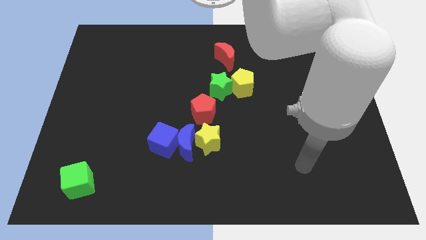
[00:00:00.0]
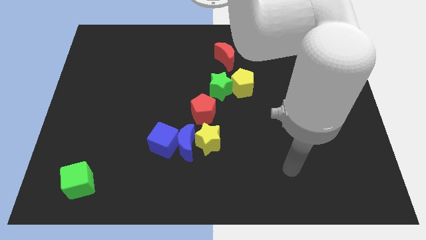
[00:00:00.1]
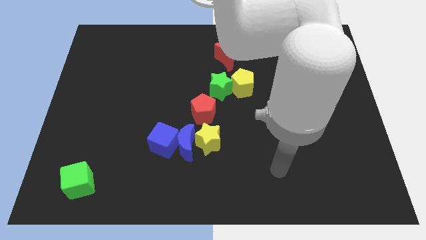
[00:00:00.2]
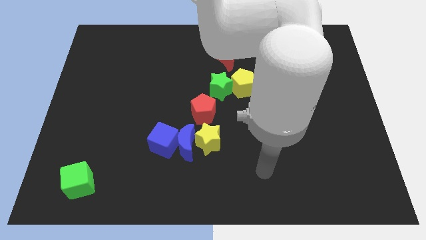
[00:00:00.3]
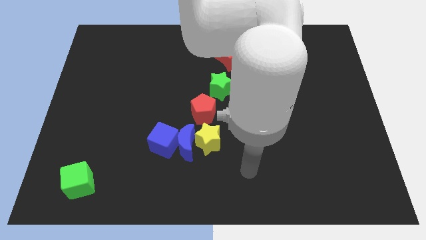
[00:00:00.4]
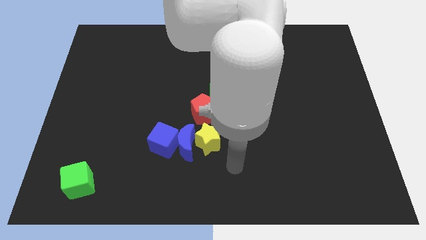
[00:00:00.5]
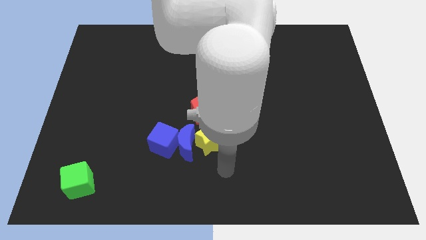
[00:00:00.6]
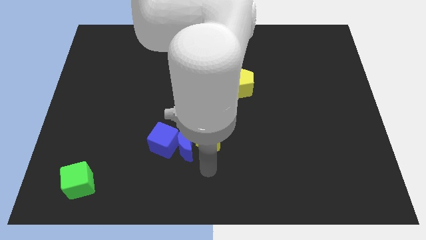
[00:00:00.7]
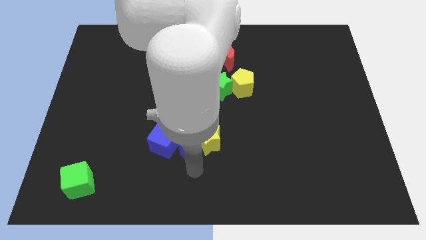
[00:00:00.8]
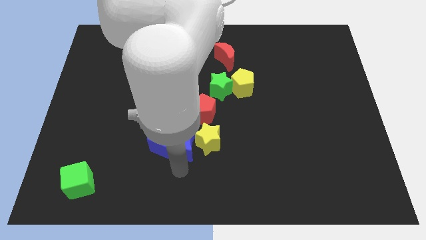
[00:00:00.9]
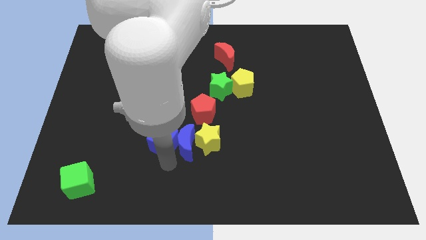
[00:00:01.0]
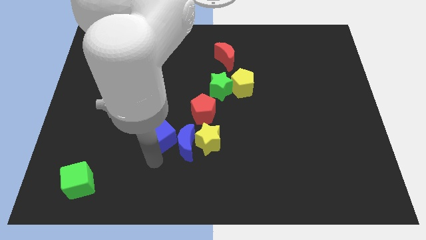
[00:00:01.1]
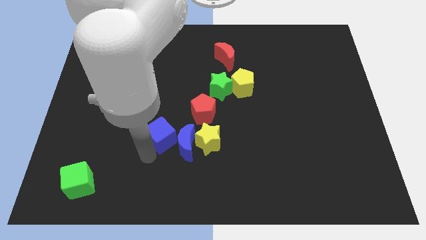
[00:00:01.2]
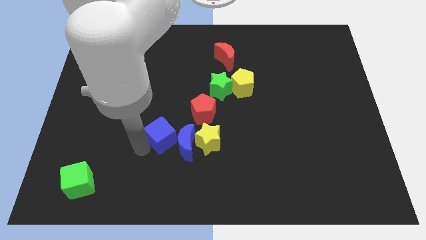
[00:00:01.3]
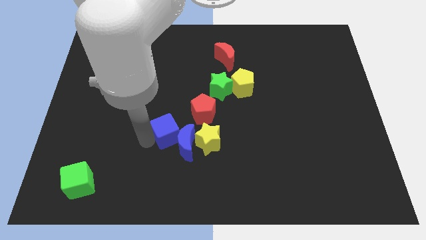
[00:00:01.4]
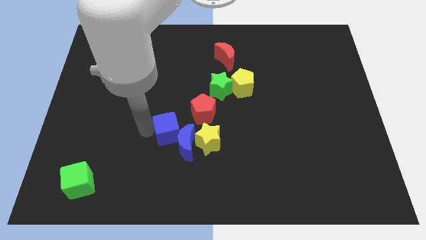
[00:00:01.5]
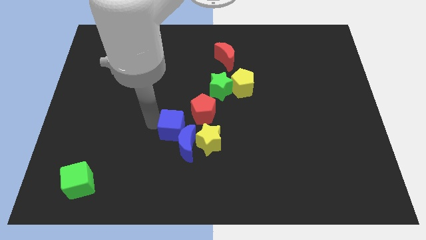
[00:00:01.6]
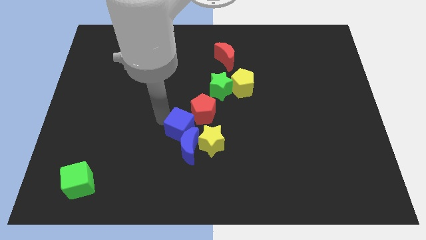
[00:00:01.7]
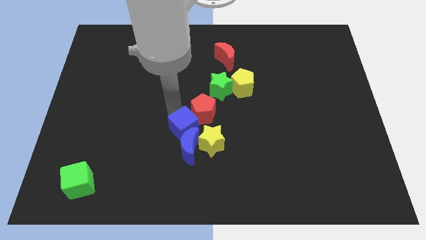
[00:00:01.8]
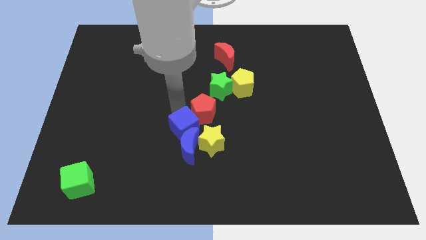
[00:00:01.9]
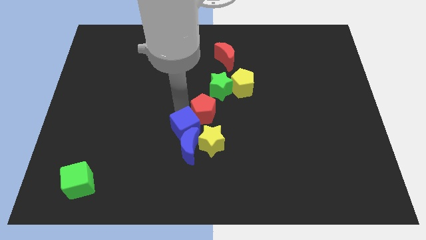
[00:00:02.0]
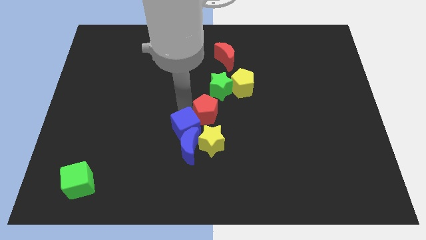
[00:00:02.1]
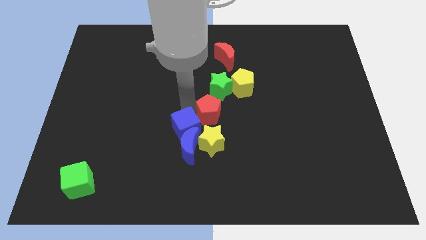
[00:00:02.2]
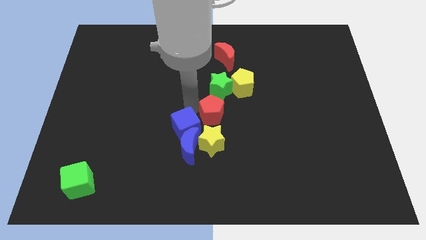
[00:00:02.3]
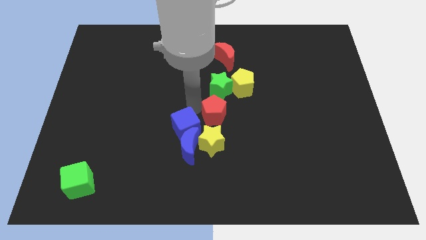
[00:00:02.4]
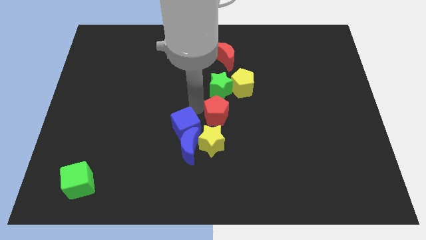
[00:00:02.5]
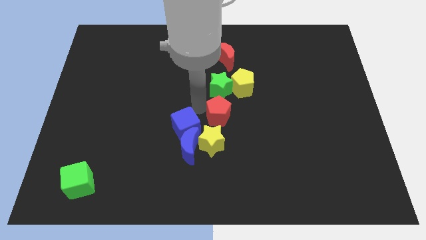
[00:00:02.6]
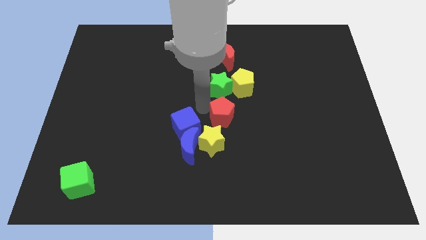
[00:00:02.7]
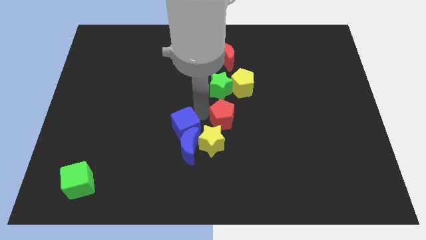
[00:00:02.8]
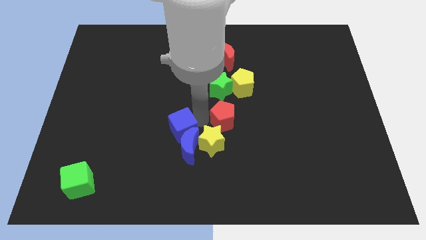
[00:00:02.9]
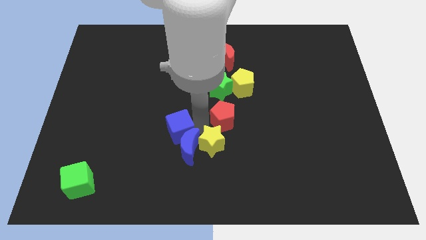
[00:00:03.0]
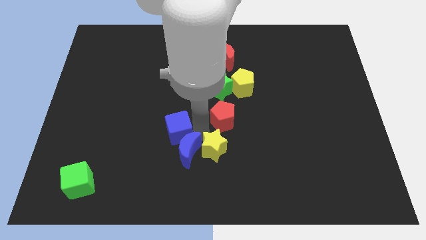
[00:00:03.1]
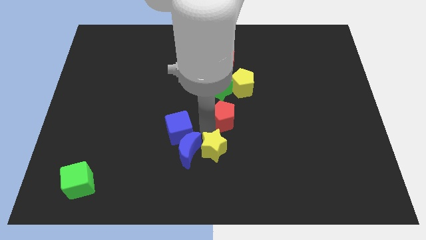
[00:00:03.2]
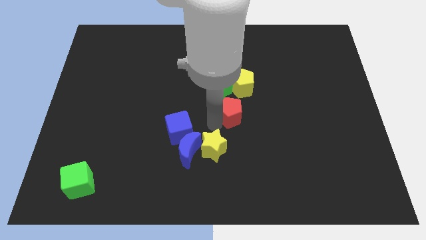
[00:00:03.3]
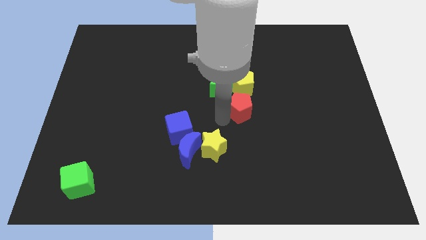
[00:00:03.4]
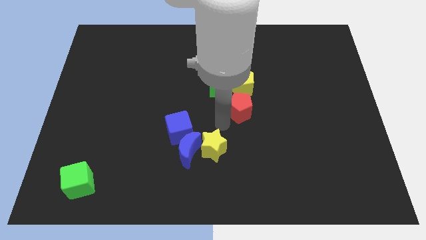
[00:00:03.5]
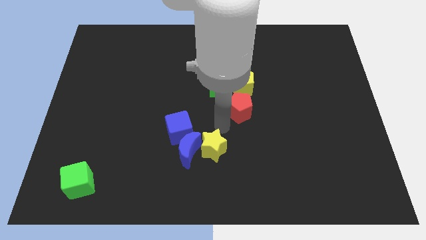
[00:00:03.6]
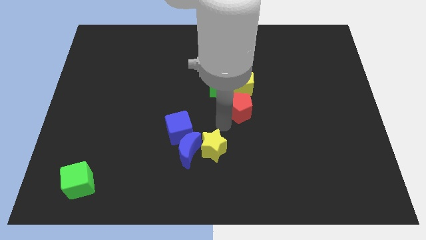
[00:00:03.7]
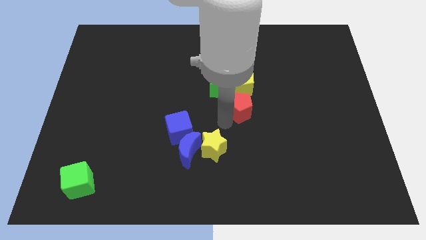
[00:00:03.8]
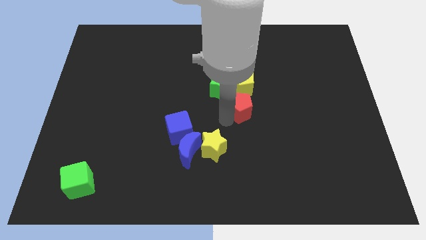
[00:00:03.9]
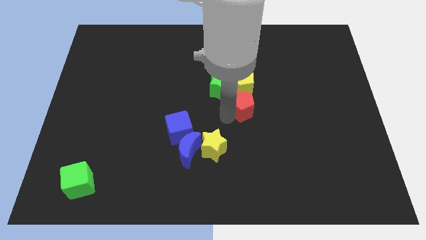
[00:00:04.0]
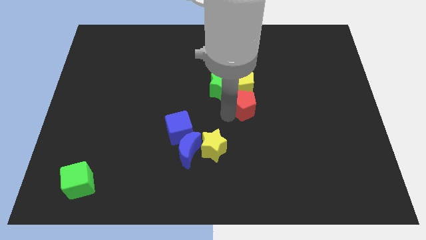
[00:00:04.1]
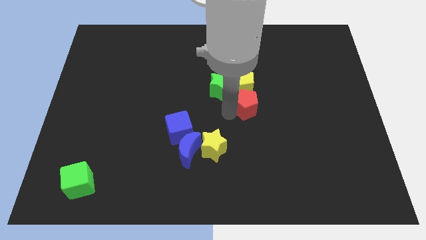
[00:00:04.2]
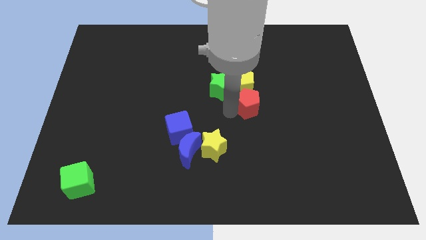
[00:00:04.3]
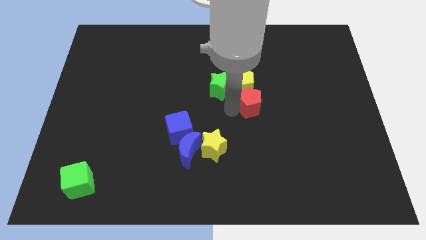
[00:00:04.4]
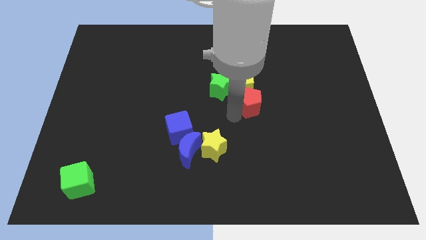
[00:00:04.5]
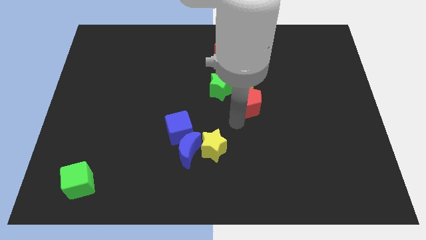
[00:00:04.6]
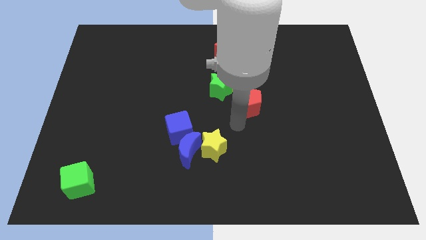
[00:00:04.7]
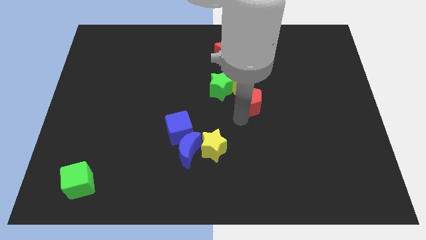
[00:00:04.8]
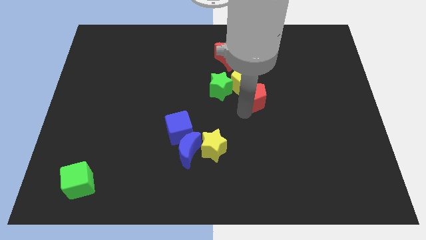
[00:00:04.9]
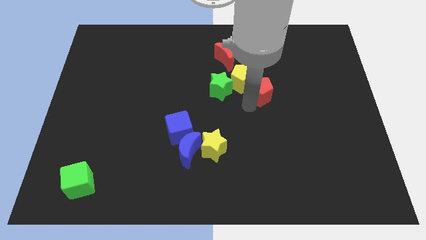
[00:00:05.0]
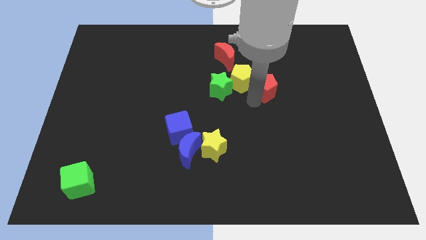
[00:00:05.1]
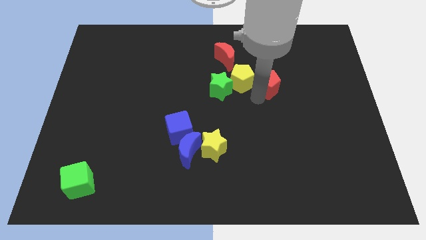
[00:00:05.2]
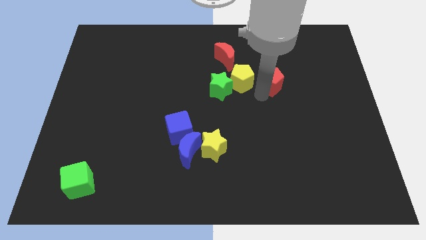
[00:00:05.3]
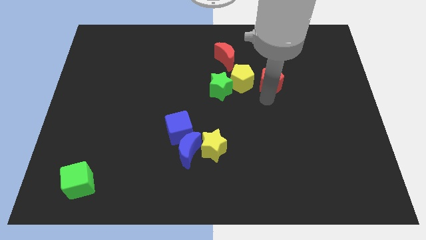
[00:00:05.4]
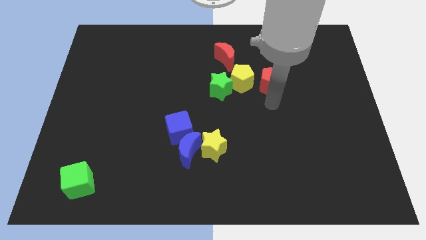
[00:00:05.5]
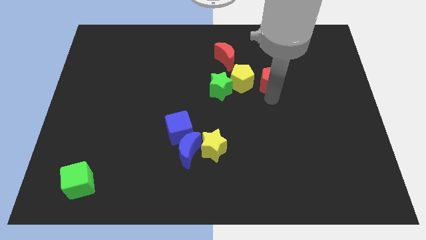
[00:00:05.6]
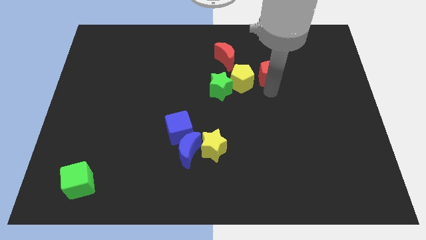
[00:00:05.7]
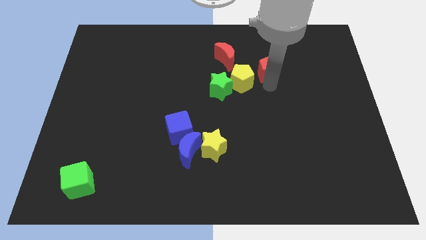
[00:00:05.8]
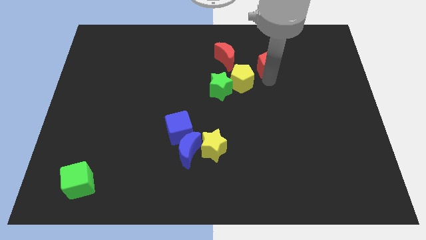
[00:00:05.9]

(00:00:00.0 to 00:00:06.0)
slide the red pentagon to the right of the red moon
